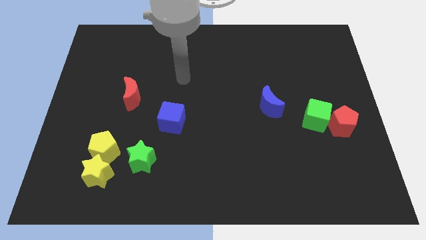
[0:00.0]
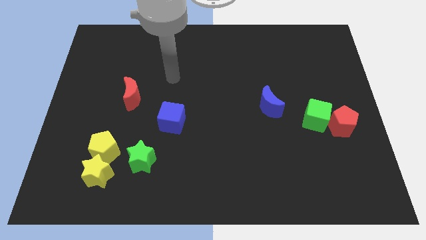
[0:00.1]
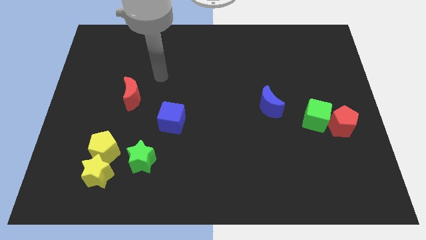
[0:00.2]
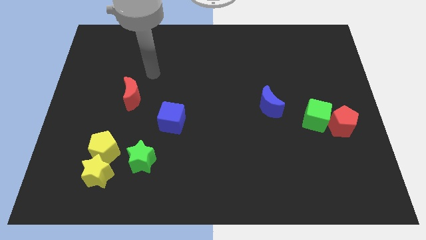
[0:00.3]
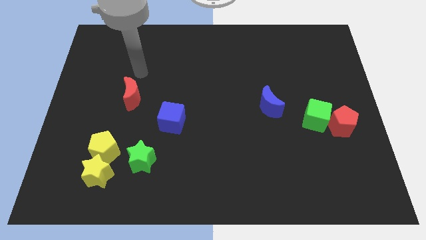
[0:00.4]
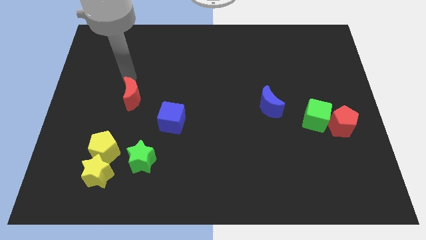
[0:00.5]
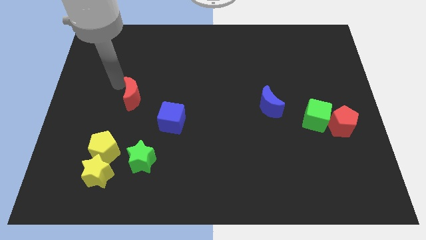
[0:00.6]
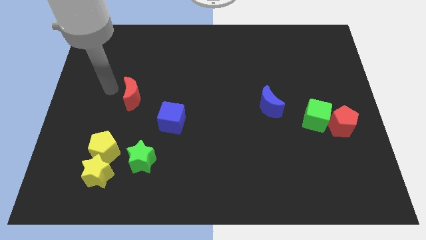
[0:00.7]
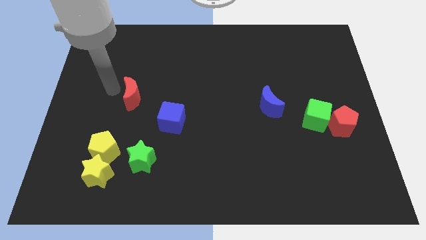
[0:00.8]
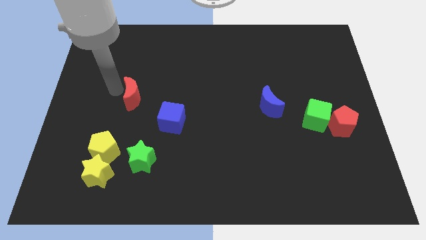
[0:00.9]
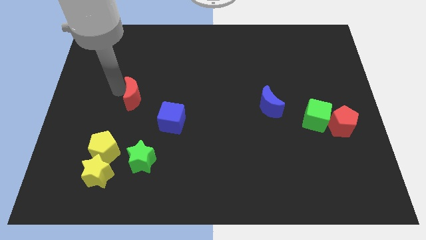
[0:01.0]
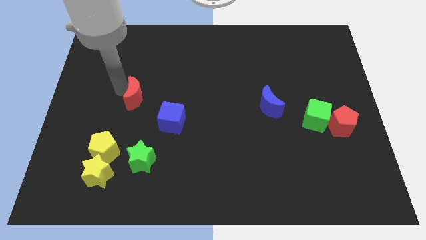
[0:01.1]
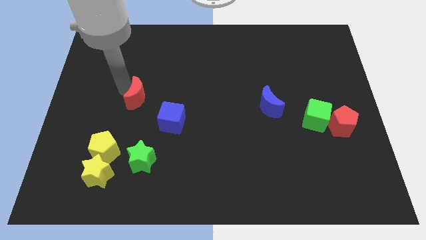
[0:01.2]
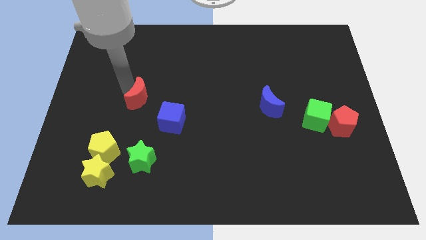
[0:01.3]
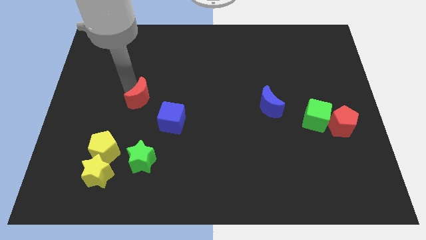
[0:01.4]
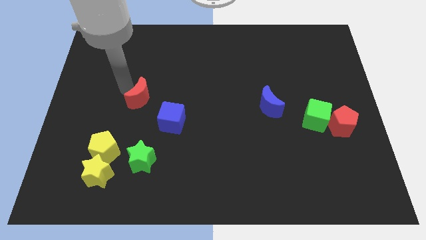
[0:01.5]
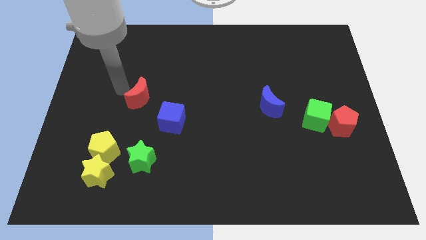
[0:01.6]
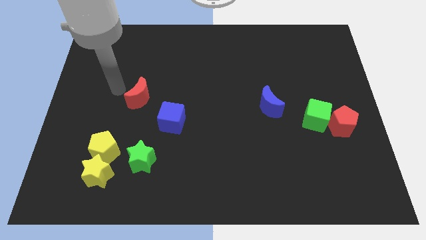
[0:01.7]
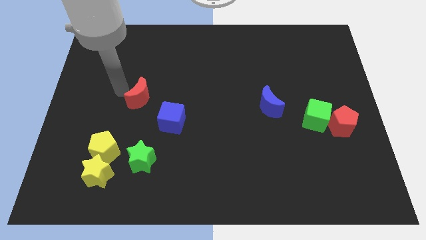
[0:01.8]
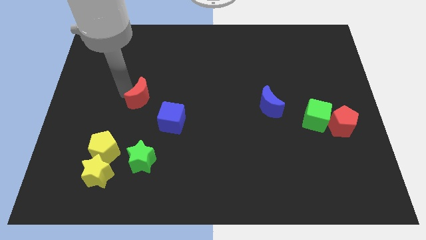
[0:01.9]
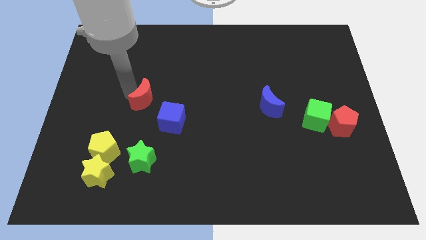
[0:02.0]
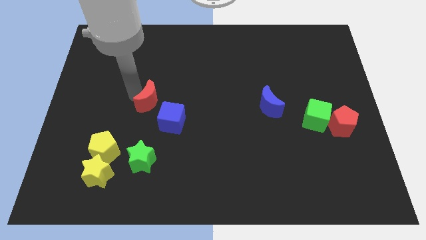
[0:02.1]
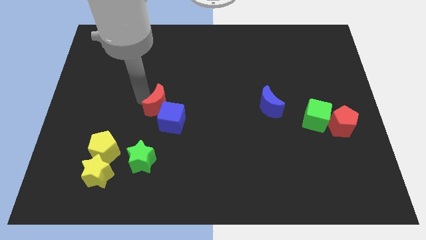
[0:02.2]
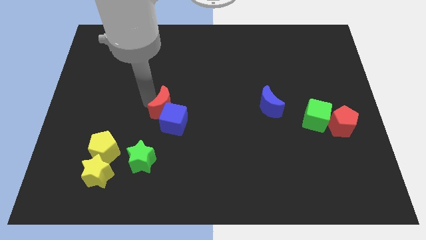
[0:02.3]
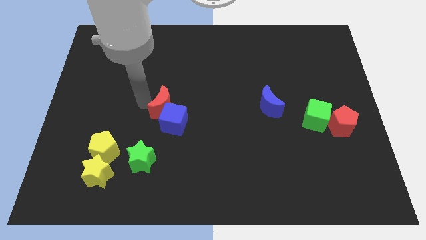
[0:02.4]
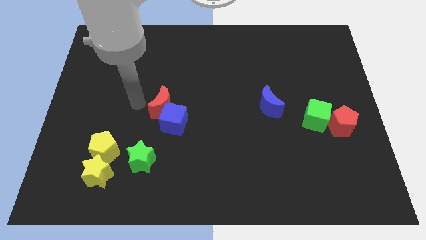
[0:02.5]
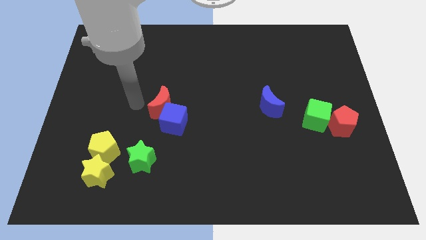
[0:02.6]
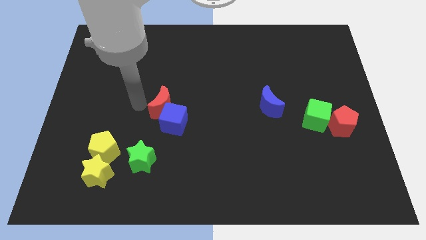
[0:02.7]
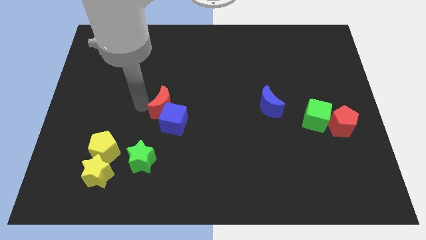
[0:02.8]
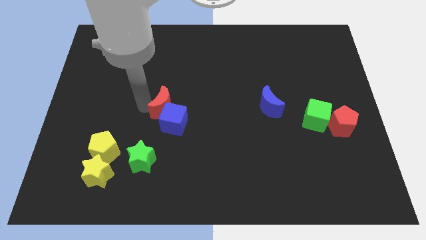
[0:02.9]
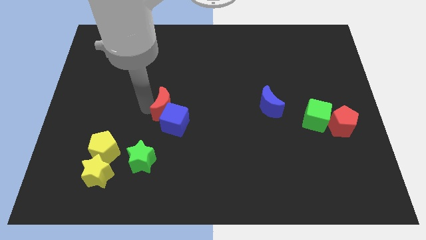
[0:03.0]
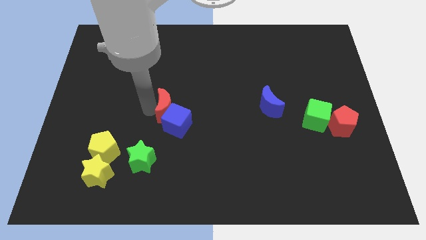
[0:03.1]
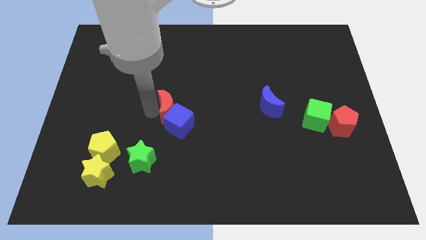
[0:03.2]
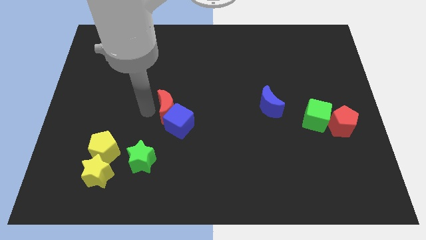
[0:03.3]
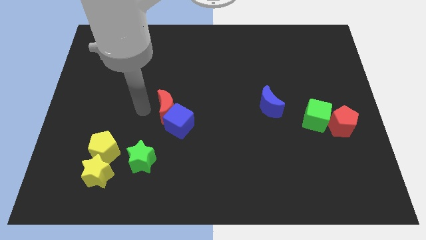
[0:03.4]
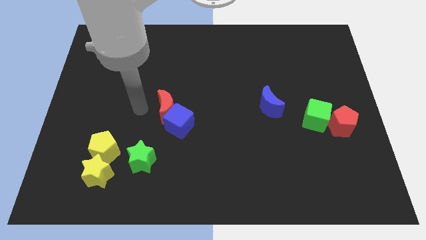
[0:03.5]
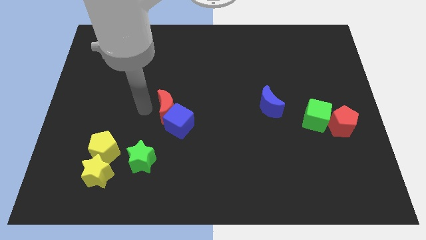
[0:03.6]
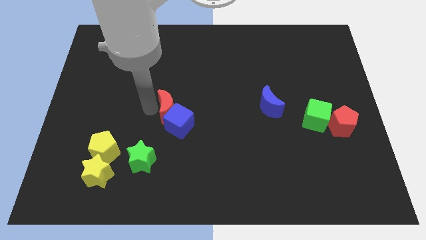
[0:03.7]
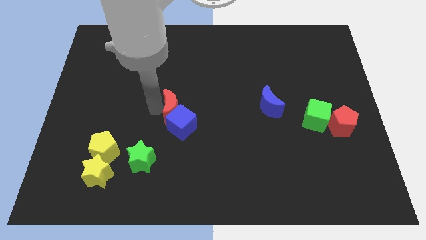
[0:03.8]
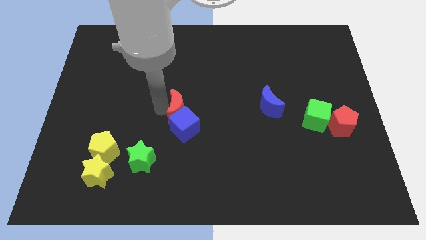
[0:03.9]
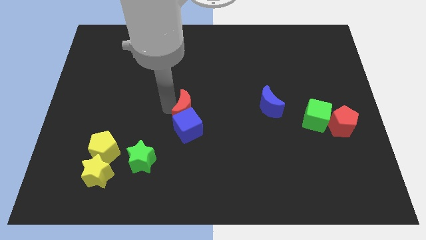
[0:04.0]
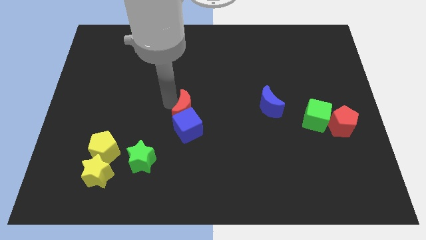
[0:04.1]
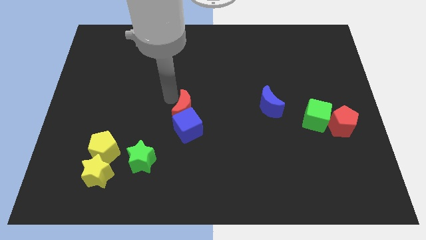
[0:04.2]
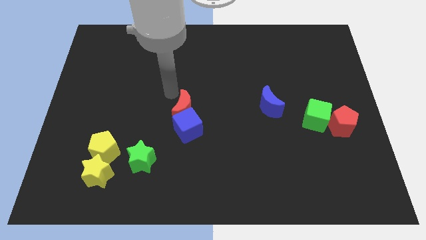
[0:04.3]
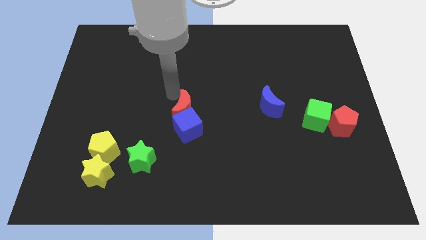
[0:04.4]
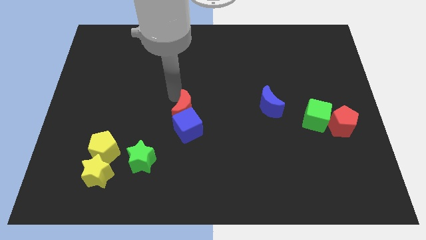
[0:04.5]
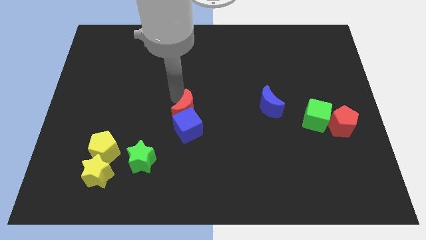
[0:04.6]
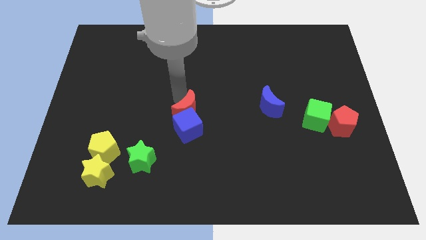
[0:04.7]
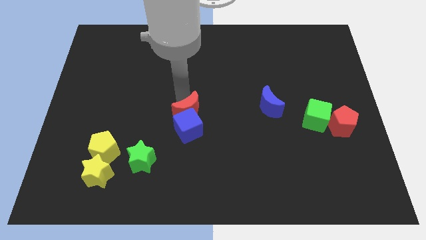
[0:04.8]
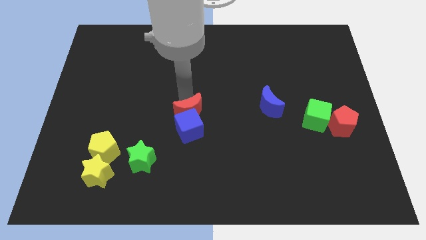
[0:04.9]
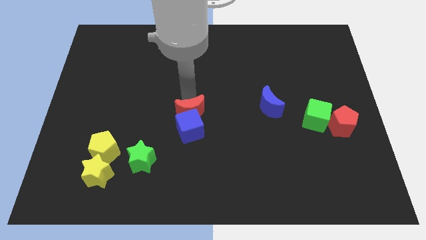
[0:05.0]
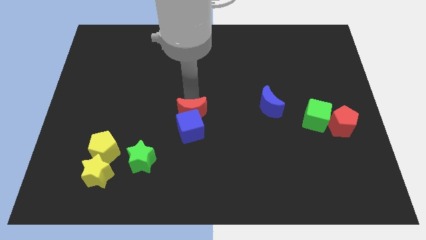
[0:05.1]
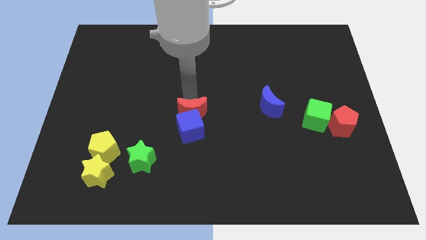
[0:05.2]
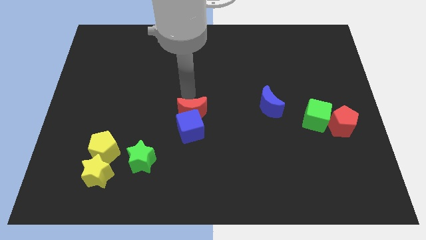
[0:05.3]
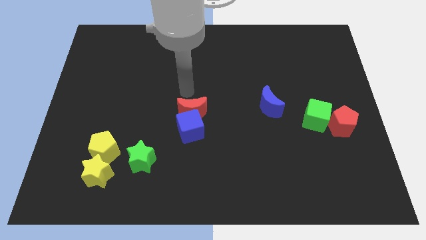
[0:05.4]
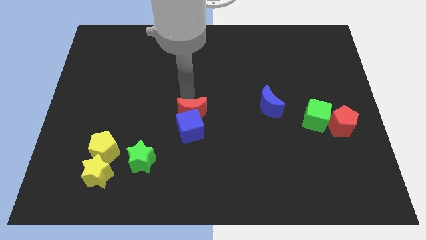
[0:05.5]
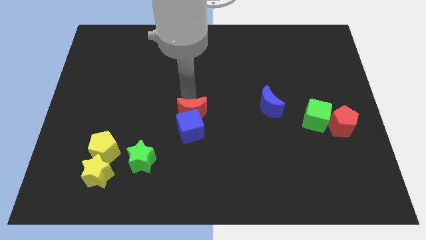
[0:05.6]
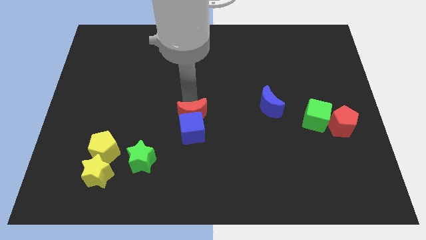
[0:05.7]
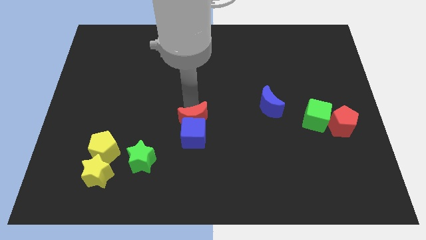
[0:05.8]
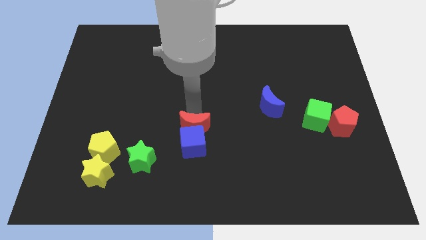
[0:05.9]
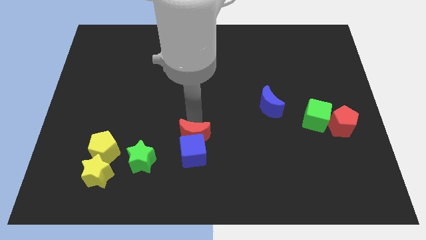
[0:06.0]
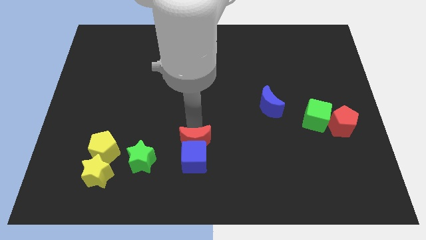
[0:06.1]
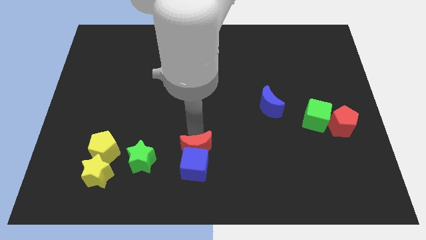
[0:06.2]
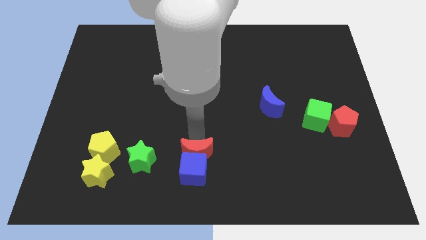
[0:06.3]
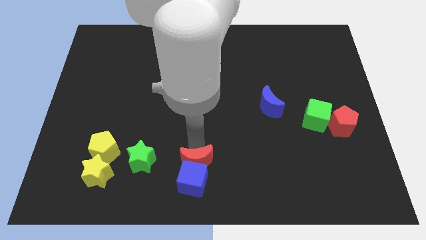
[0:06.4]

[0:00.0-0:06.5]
slide the red moon to the bottom
